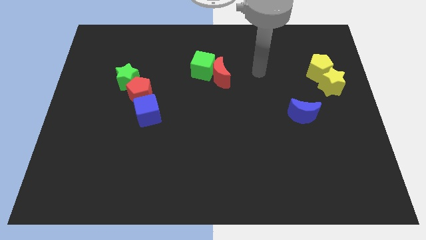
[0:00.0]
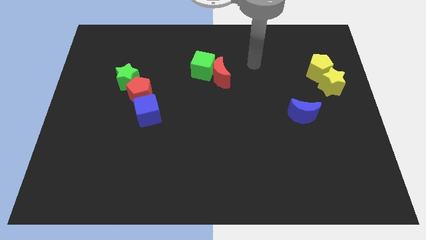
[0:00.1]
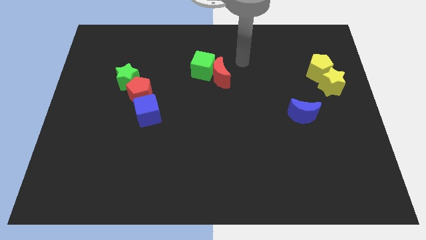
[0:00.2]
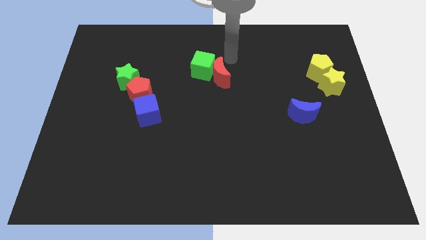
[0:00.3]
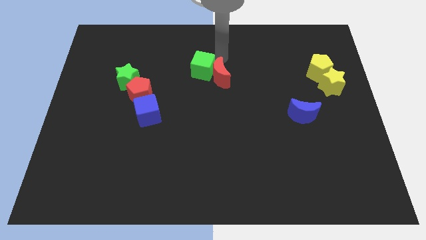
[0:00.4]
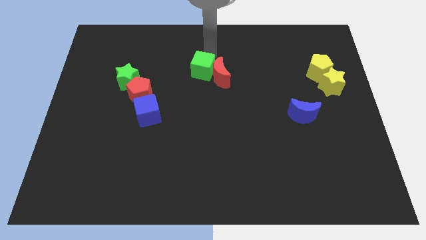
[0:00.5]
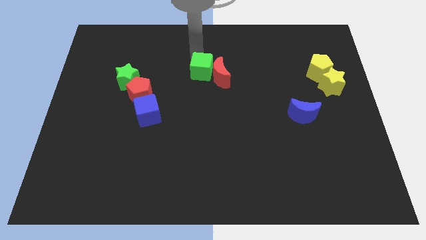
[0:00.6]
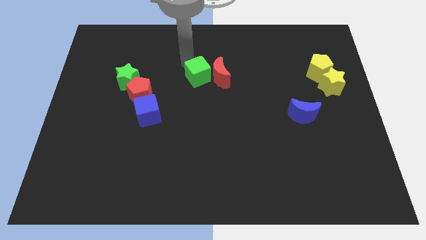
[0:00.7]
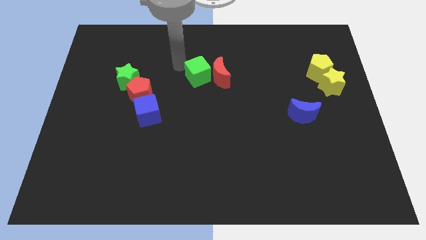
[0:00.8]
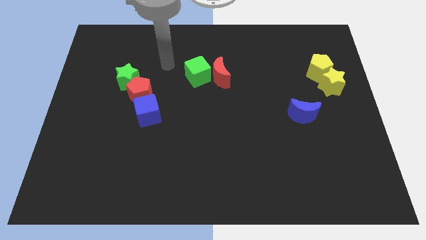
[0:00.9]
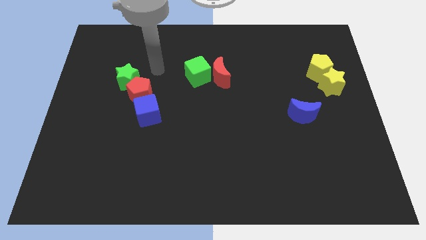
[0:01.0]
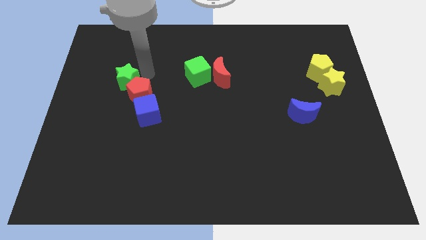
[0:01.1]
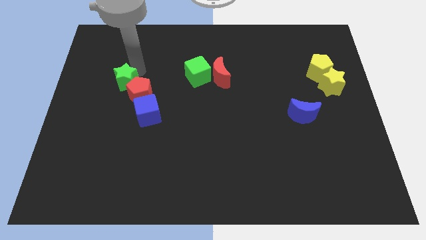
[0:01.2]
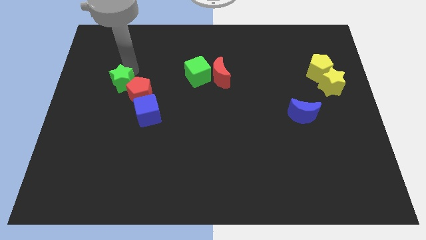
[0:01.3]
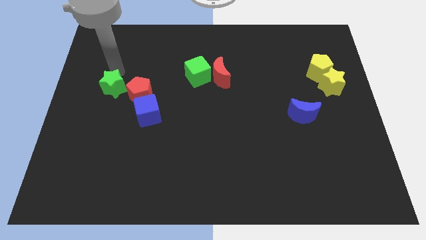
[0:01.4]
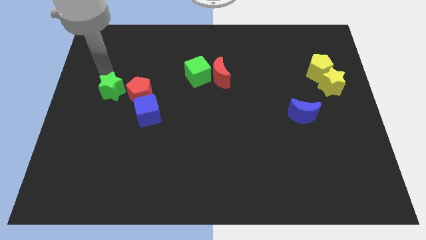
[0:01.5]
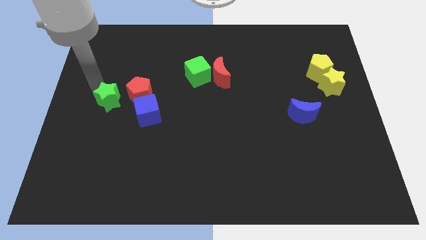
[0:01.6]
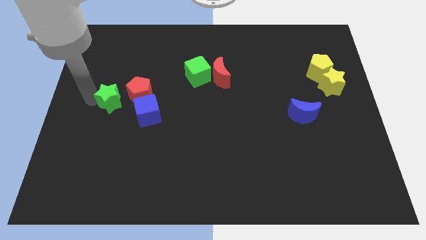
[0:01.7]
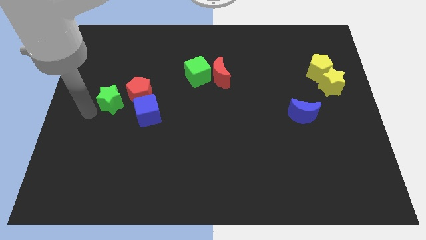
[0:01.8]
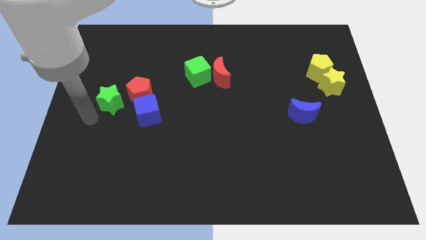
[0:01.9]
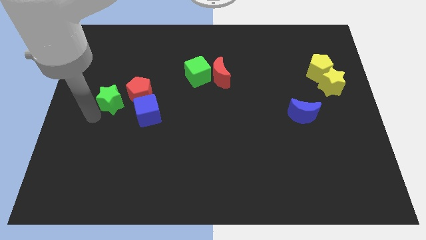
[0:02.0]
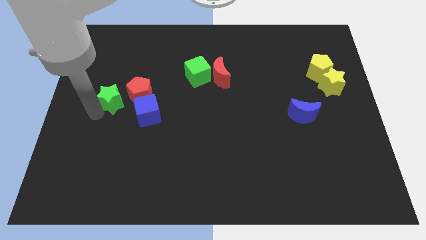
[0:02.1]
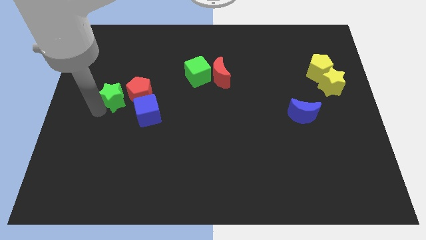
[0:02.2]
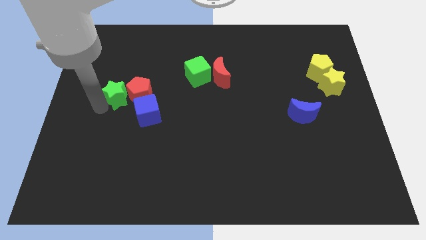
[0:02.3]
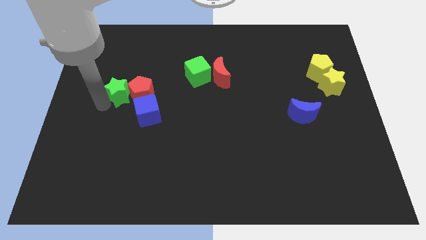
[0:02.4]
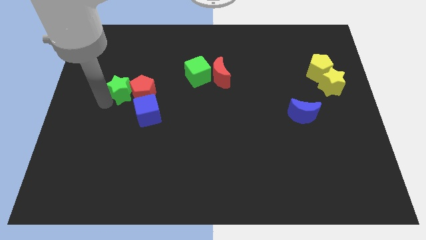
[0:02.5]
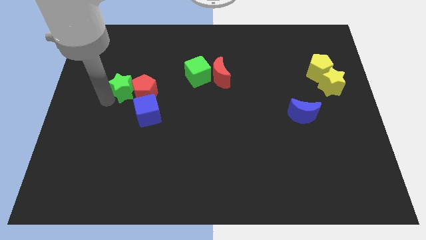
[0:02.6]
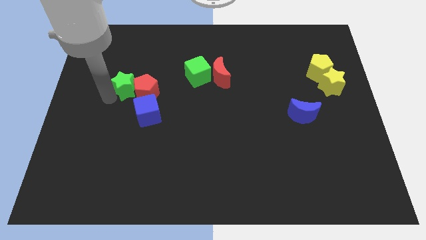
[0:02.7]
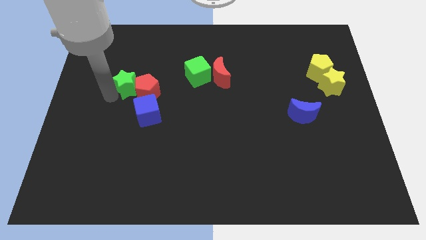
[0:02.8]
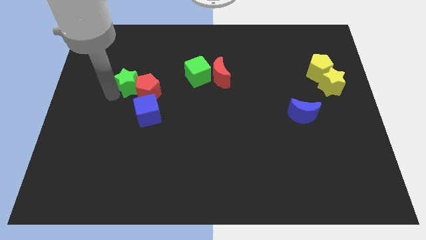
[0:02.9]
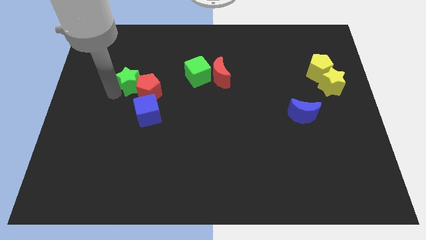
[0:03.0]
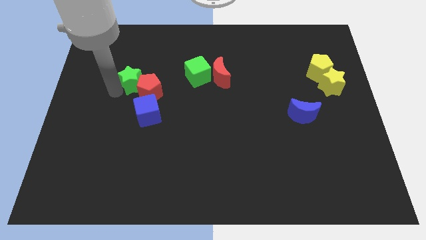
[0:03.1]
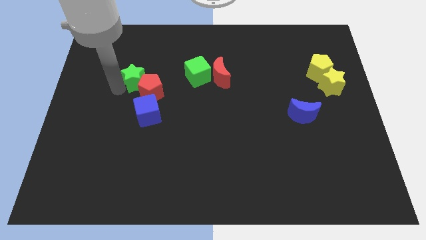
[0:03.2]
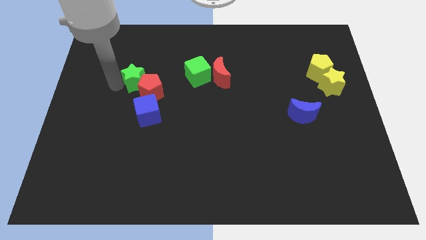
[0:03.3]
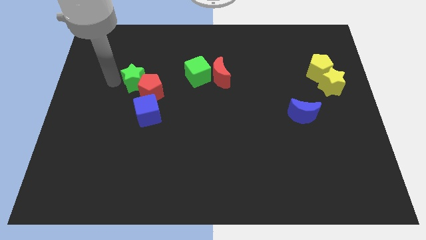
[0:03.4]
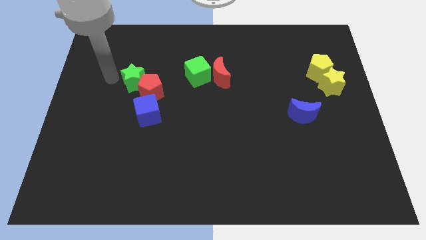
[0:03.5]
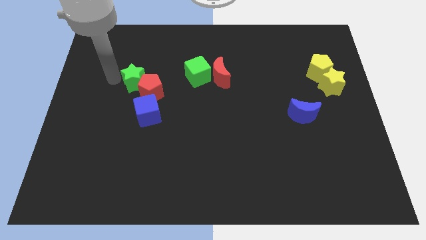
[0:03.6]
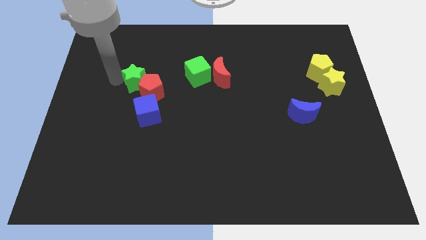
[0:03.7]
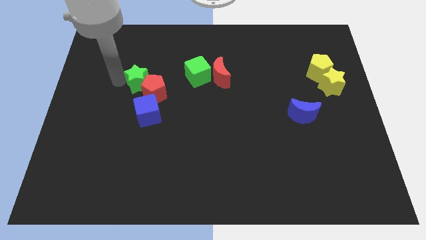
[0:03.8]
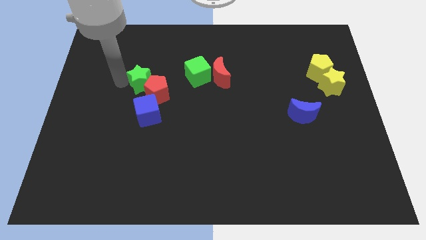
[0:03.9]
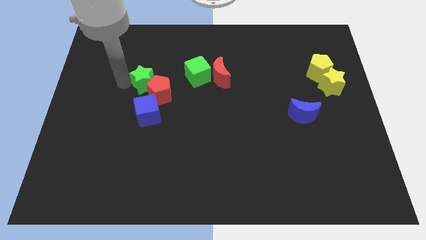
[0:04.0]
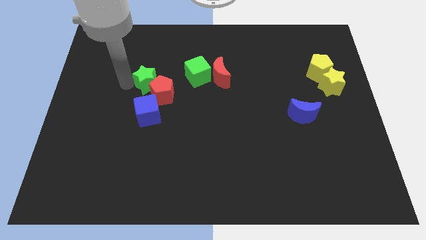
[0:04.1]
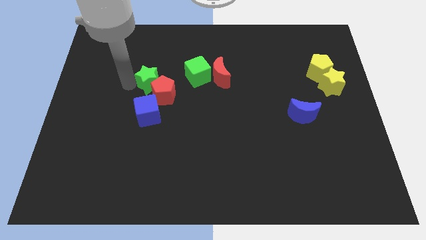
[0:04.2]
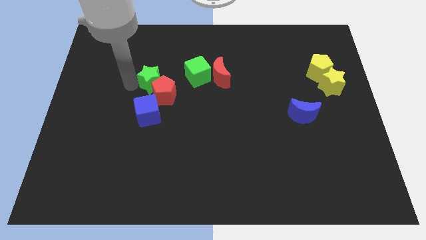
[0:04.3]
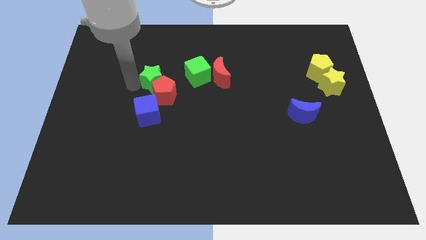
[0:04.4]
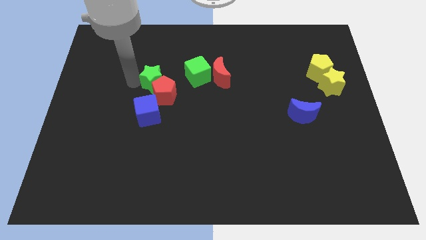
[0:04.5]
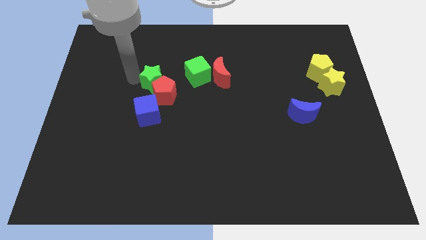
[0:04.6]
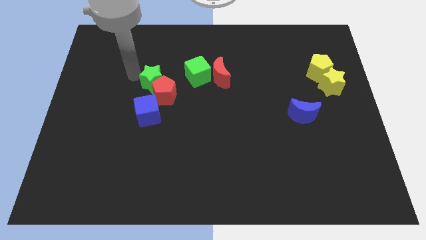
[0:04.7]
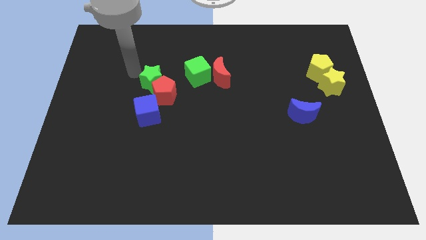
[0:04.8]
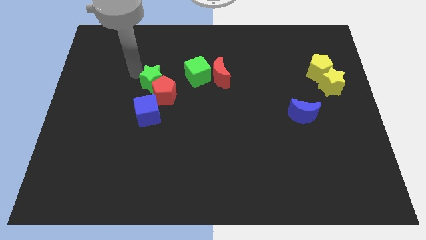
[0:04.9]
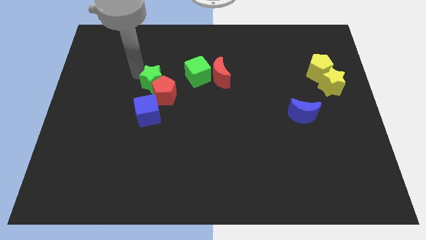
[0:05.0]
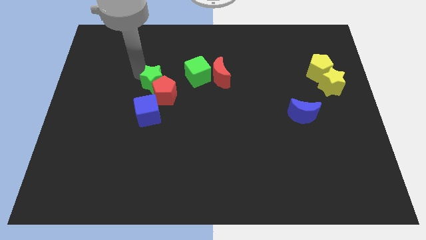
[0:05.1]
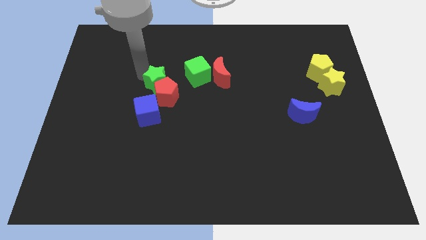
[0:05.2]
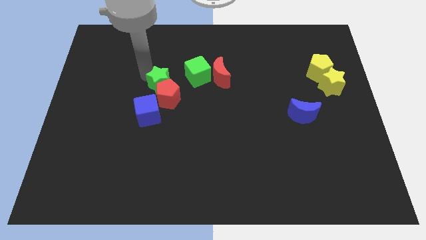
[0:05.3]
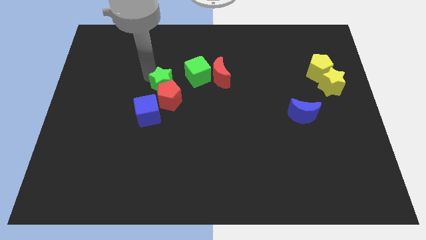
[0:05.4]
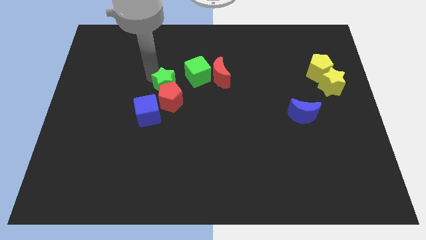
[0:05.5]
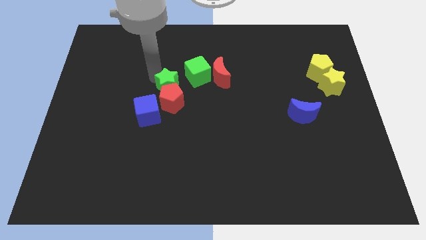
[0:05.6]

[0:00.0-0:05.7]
move the green star down and to the right diagonally slightly

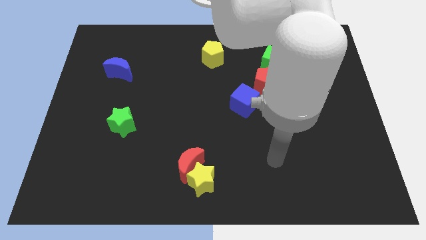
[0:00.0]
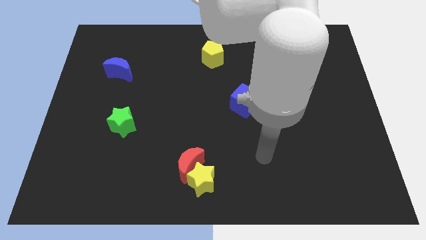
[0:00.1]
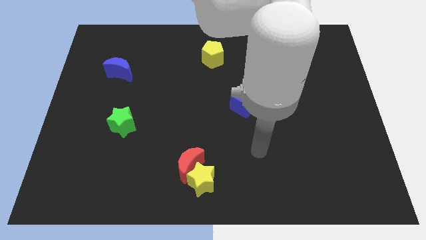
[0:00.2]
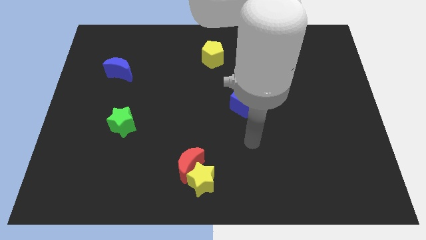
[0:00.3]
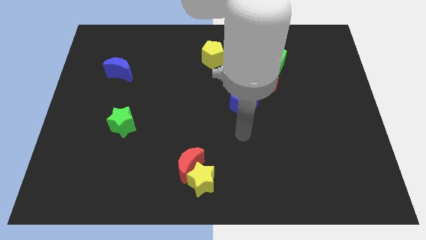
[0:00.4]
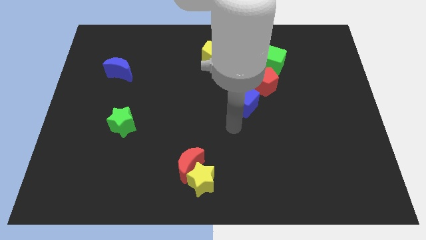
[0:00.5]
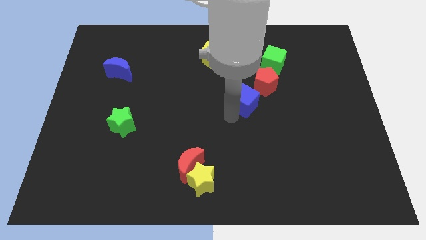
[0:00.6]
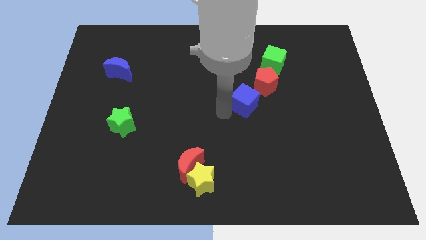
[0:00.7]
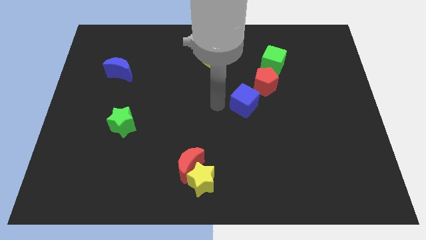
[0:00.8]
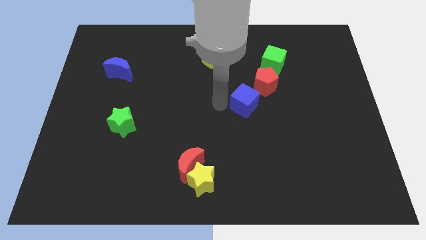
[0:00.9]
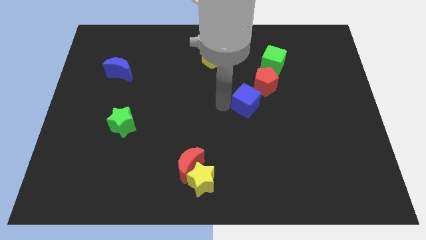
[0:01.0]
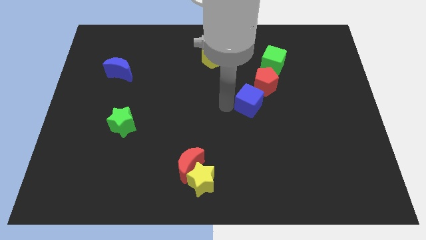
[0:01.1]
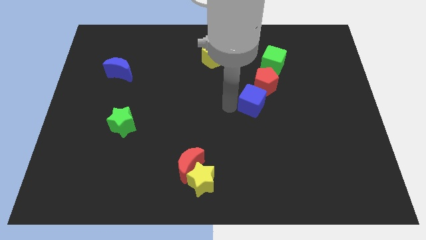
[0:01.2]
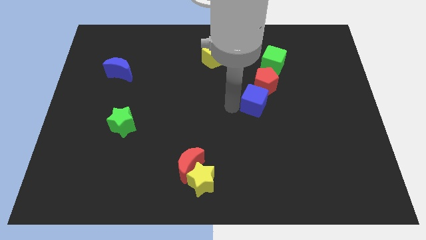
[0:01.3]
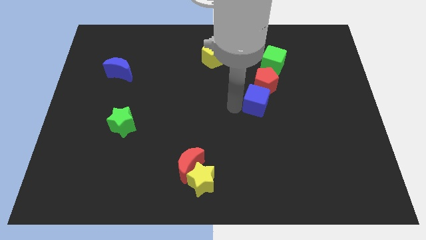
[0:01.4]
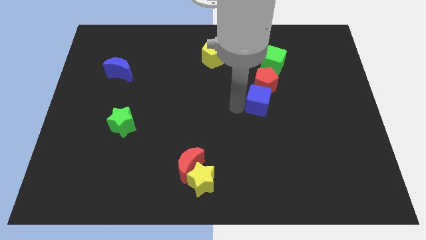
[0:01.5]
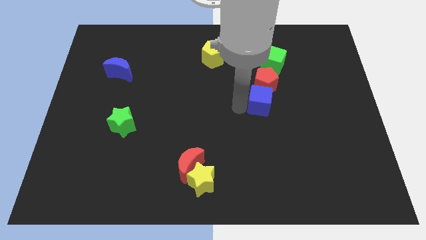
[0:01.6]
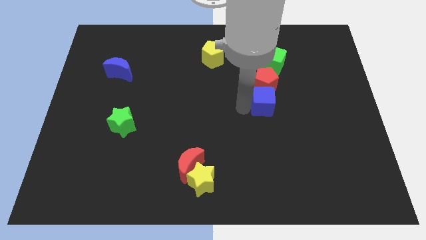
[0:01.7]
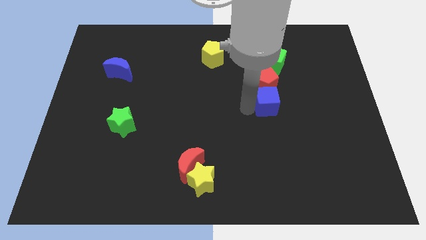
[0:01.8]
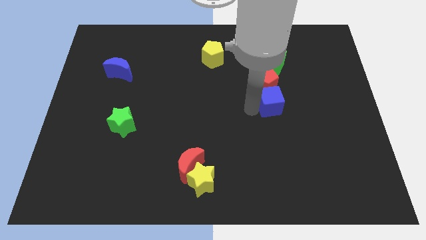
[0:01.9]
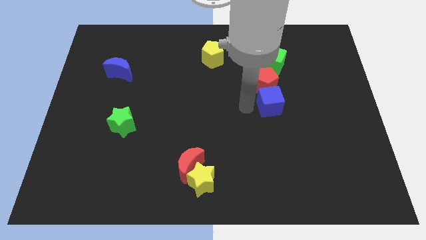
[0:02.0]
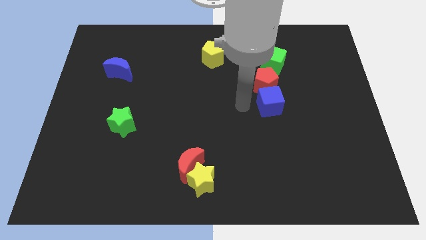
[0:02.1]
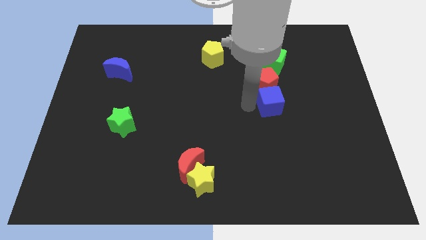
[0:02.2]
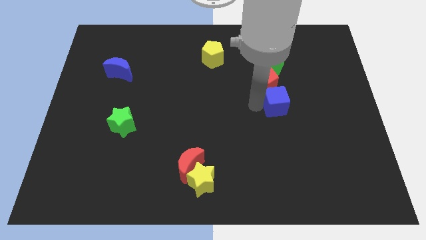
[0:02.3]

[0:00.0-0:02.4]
slide the blue cube slightly to the right
